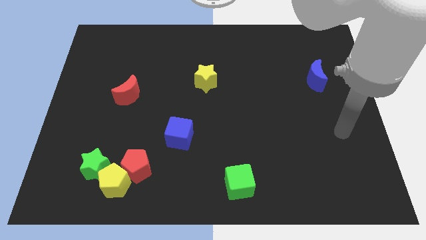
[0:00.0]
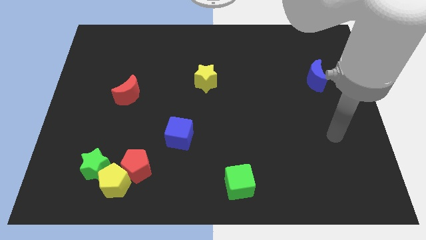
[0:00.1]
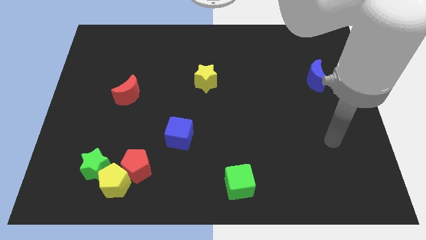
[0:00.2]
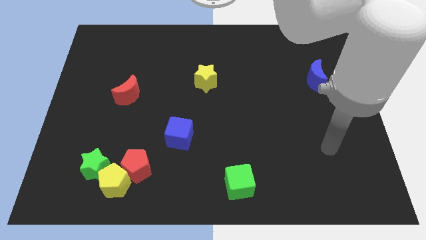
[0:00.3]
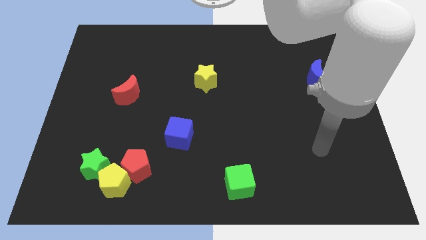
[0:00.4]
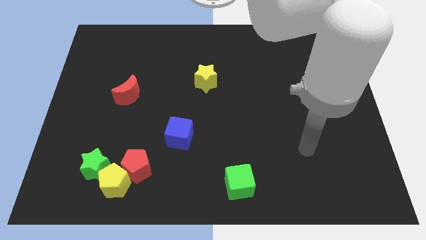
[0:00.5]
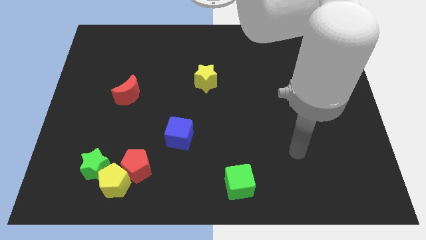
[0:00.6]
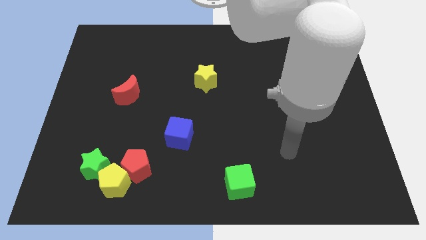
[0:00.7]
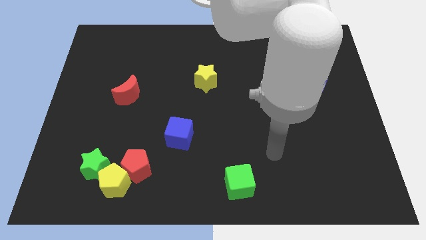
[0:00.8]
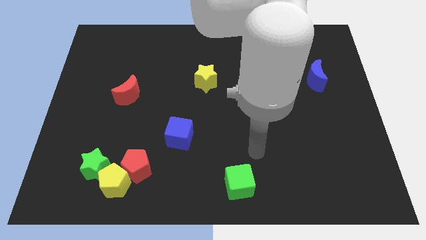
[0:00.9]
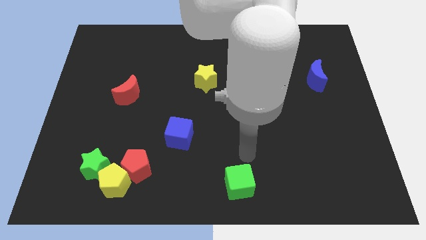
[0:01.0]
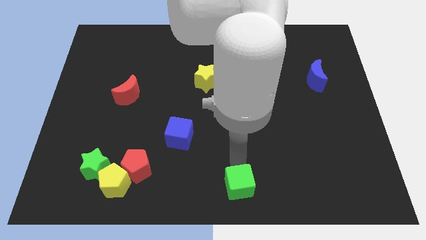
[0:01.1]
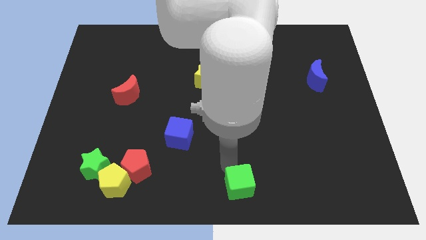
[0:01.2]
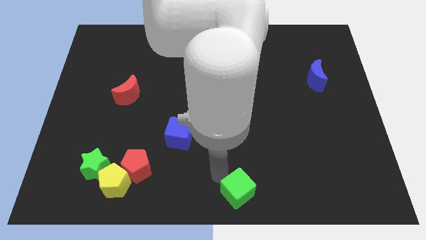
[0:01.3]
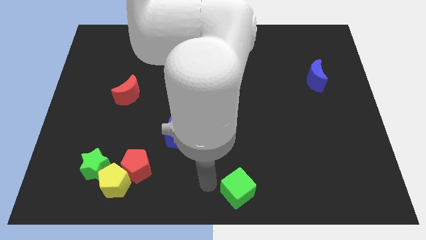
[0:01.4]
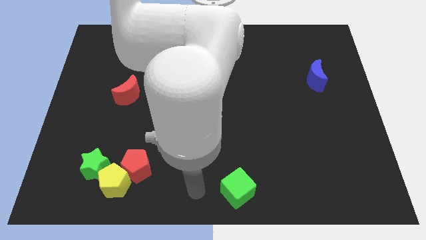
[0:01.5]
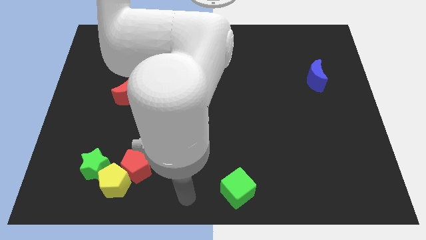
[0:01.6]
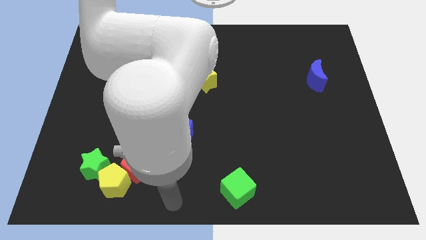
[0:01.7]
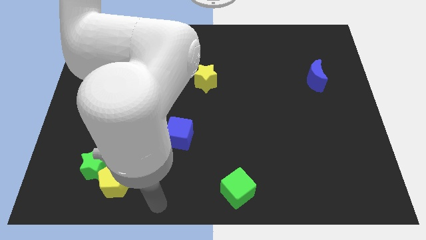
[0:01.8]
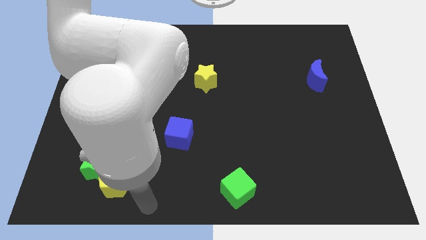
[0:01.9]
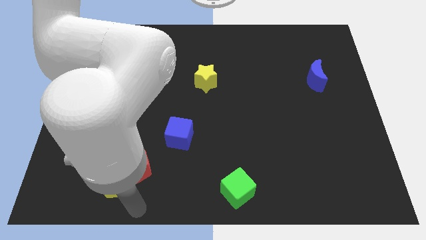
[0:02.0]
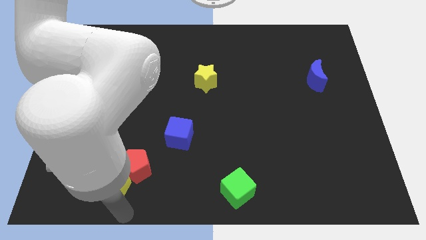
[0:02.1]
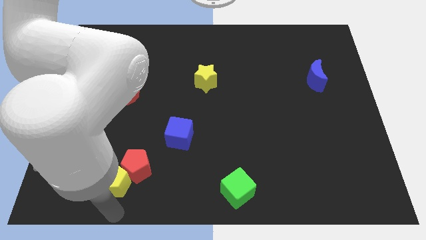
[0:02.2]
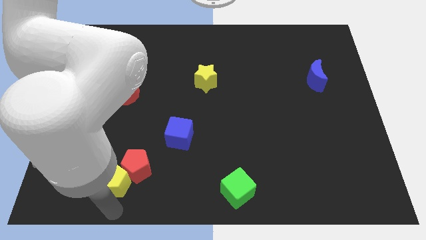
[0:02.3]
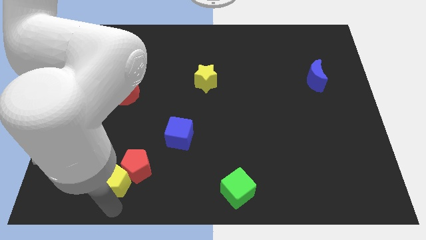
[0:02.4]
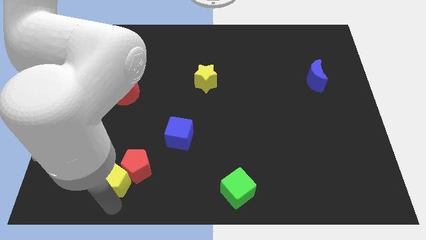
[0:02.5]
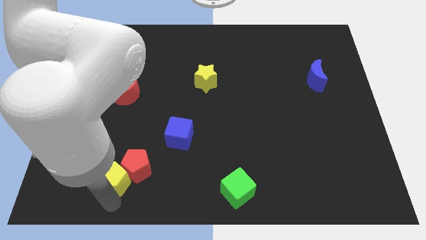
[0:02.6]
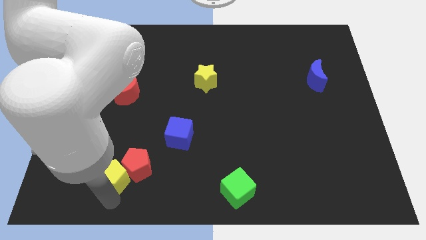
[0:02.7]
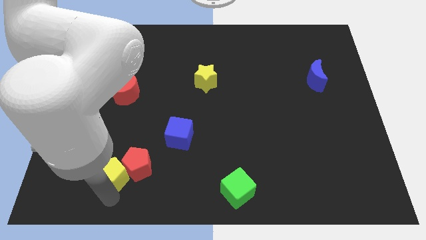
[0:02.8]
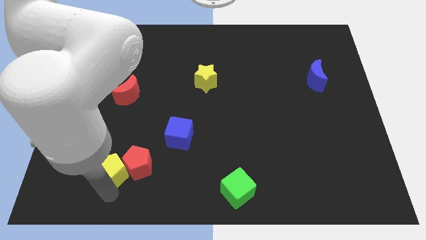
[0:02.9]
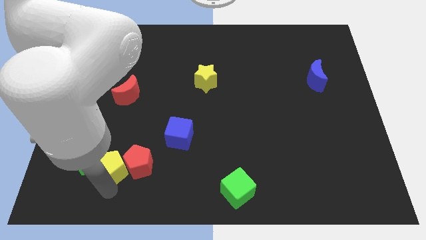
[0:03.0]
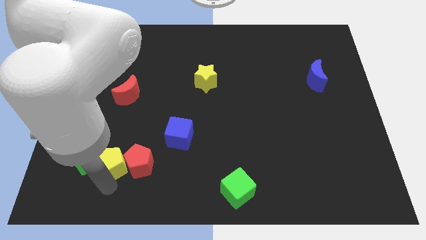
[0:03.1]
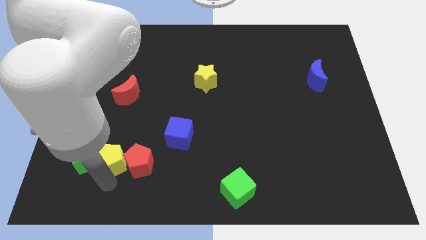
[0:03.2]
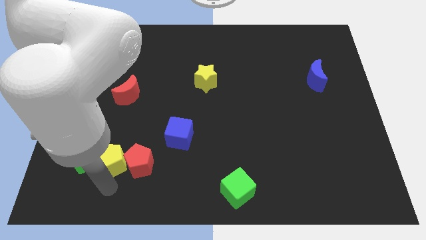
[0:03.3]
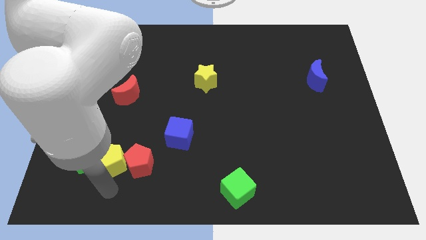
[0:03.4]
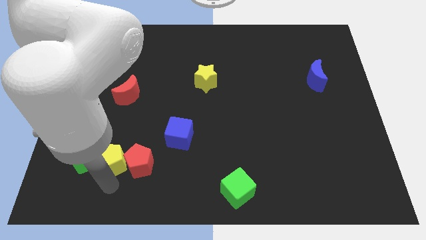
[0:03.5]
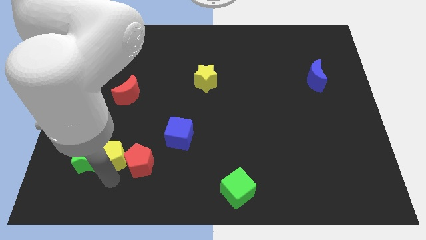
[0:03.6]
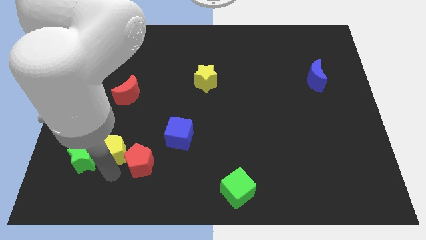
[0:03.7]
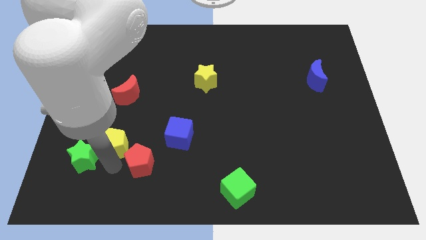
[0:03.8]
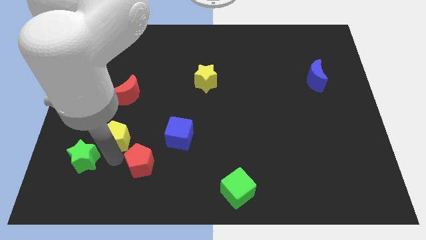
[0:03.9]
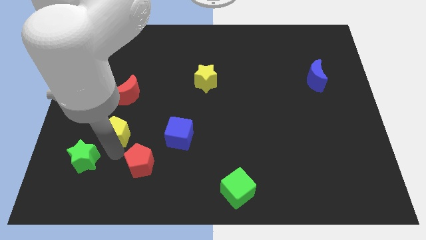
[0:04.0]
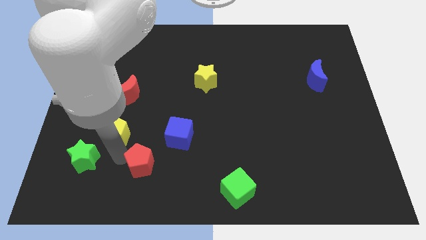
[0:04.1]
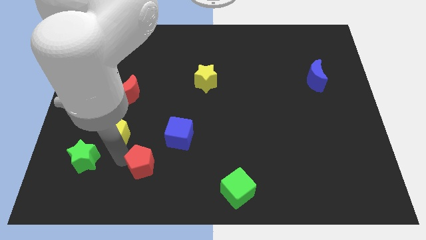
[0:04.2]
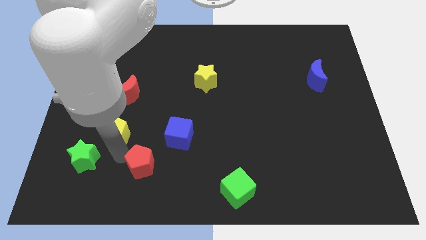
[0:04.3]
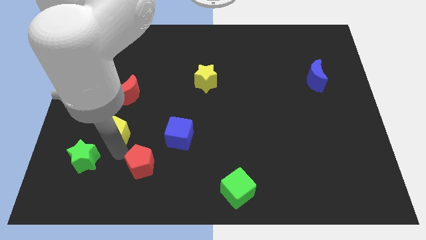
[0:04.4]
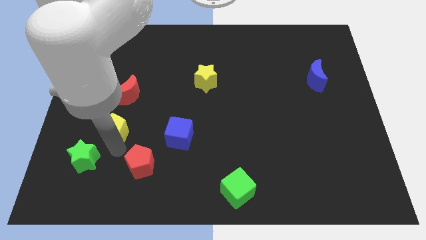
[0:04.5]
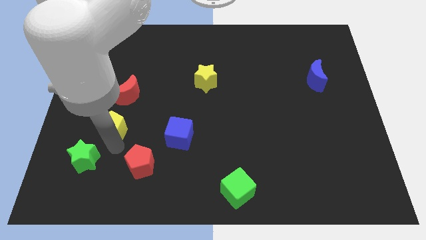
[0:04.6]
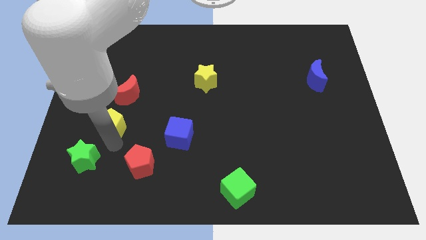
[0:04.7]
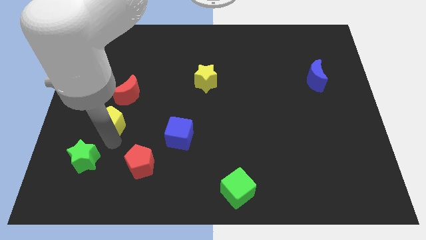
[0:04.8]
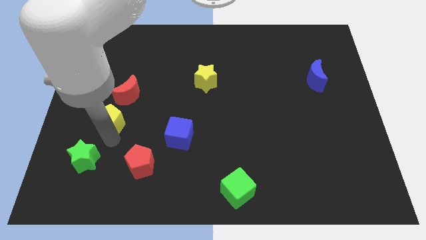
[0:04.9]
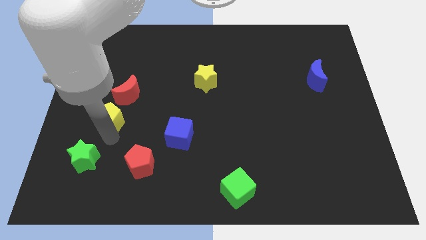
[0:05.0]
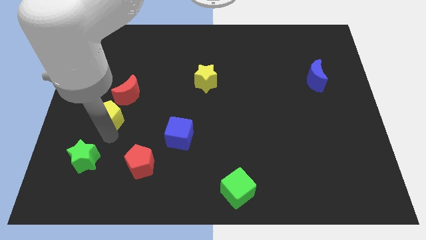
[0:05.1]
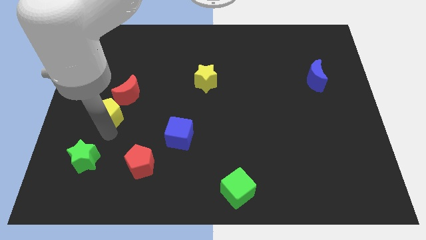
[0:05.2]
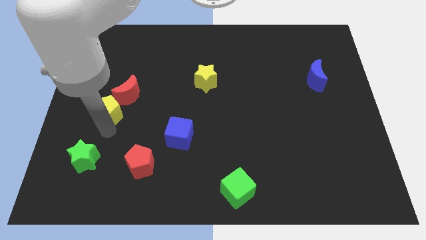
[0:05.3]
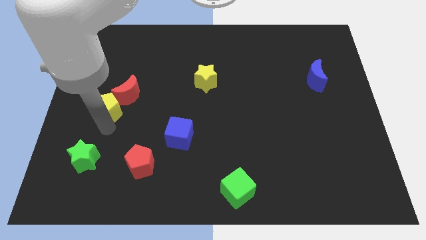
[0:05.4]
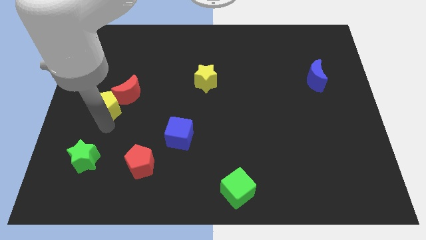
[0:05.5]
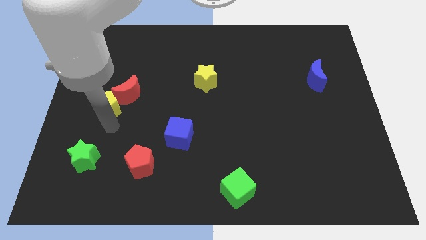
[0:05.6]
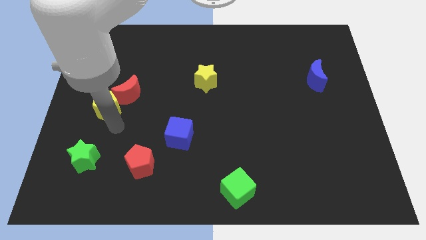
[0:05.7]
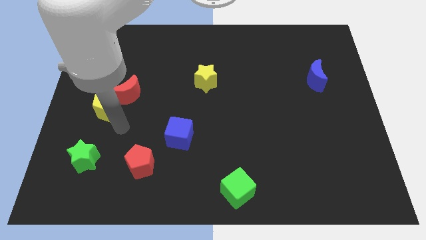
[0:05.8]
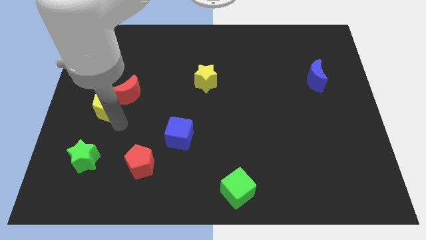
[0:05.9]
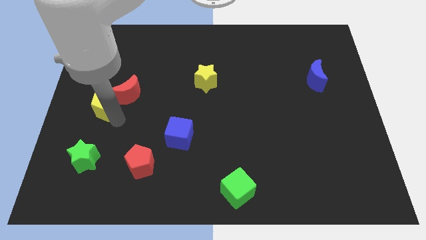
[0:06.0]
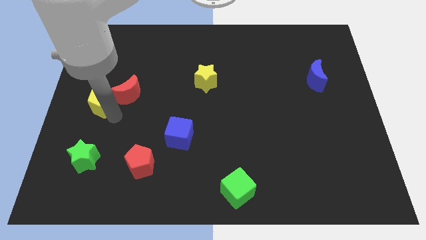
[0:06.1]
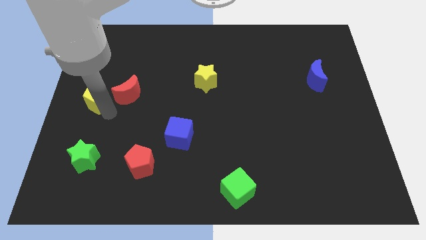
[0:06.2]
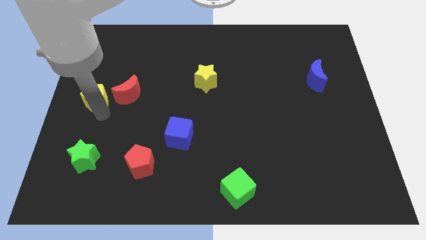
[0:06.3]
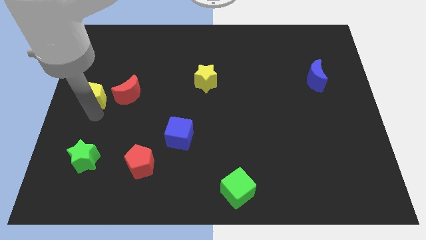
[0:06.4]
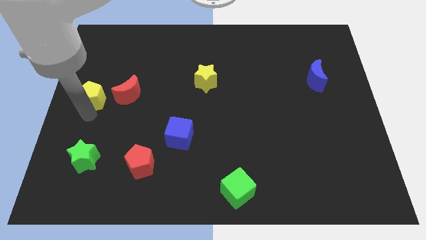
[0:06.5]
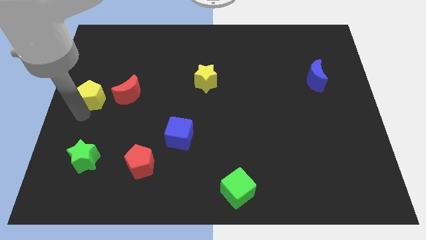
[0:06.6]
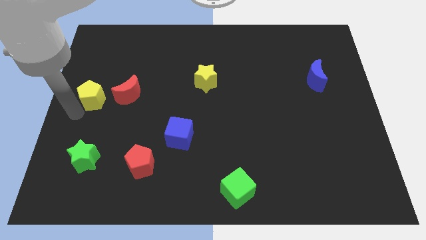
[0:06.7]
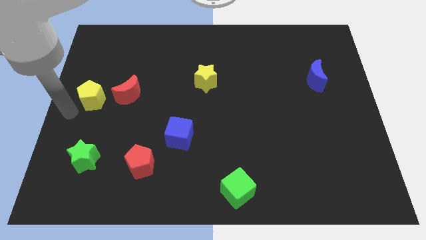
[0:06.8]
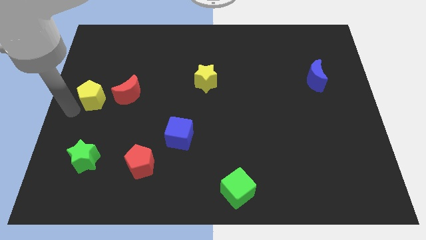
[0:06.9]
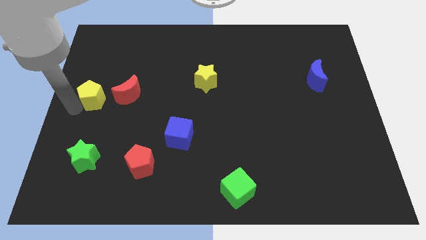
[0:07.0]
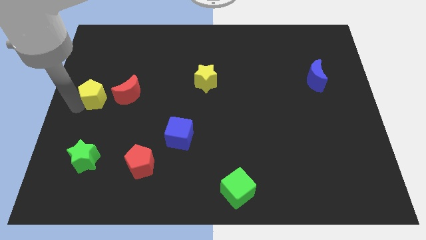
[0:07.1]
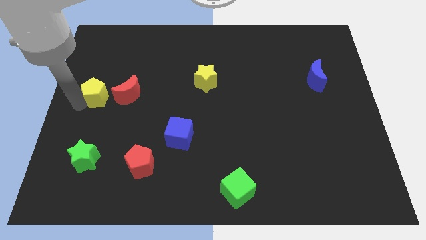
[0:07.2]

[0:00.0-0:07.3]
push the yellow pentagon up

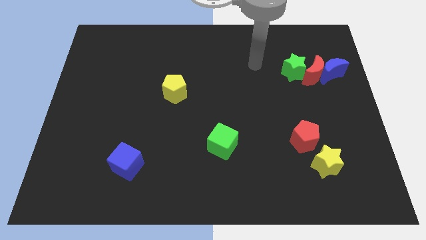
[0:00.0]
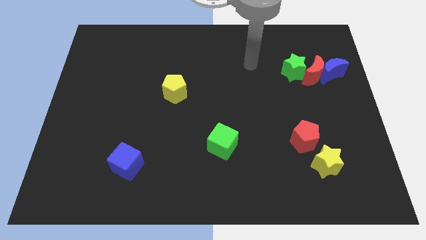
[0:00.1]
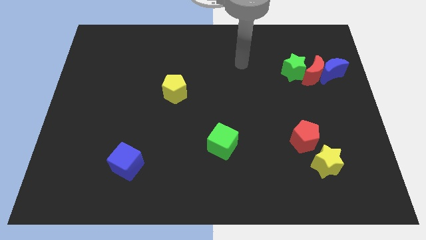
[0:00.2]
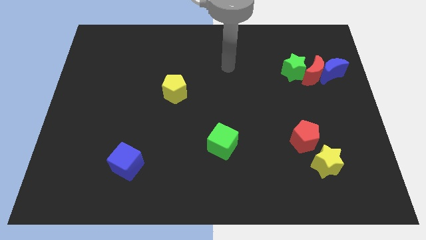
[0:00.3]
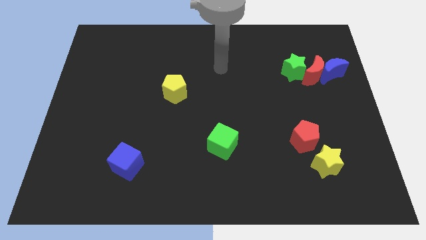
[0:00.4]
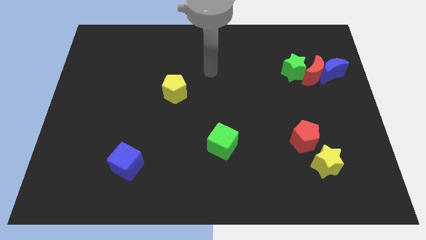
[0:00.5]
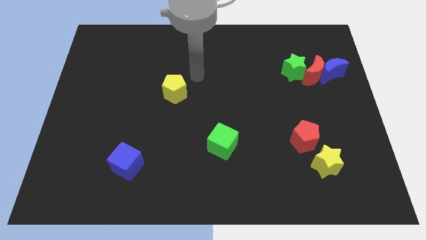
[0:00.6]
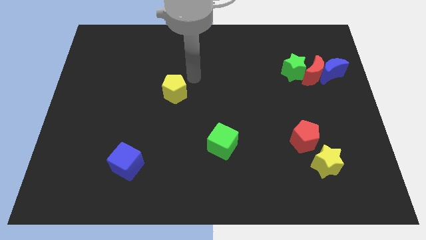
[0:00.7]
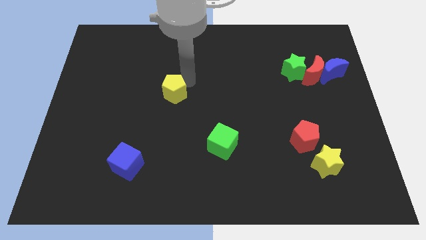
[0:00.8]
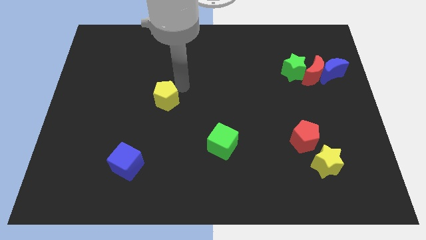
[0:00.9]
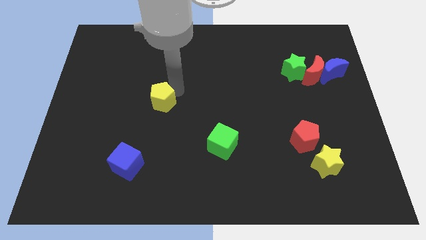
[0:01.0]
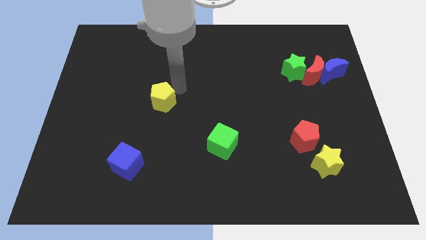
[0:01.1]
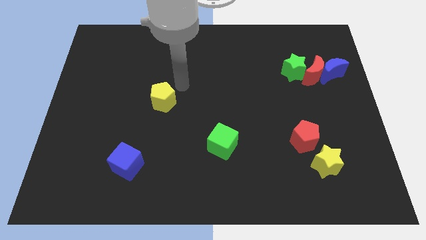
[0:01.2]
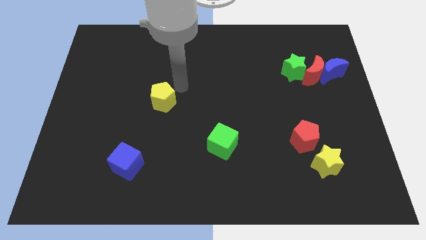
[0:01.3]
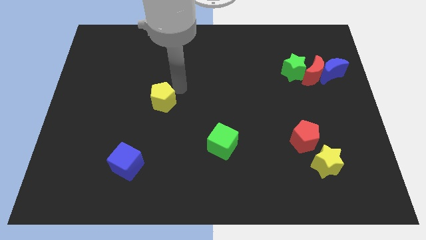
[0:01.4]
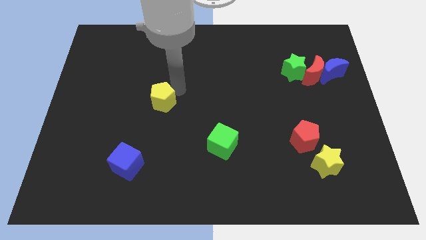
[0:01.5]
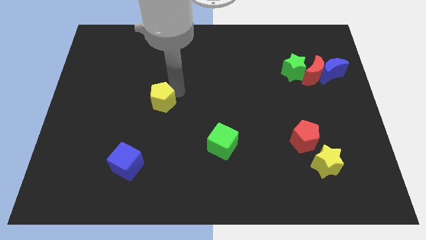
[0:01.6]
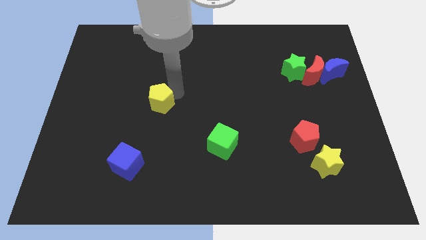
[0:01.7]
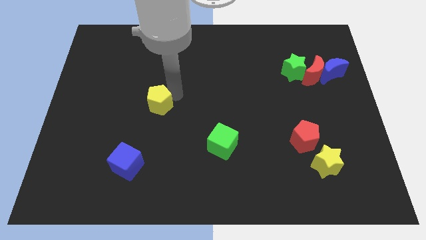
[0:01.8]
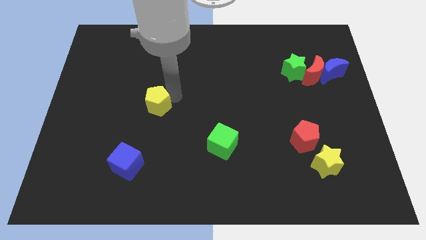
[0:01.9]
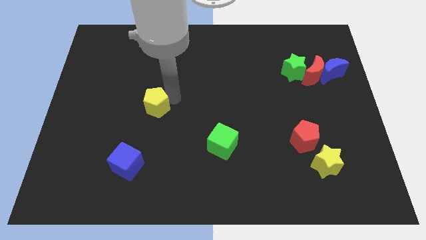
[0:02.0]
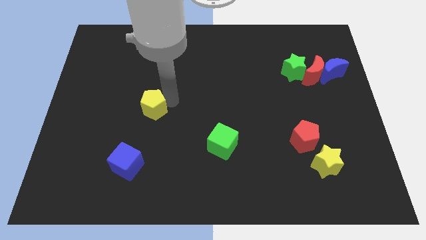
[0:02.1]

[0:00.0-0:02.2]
slide the yellow pentagon a little down and to the left diagonally
